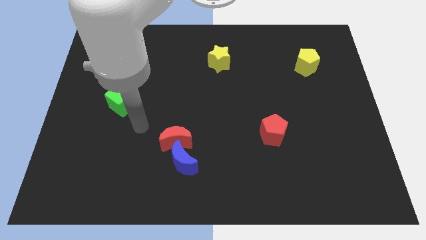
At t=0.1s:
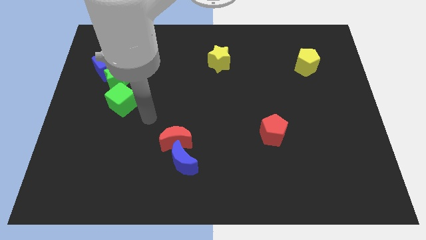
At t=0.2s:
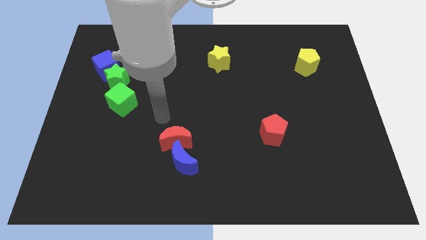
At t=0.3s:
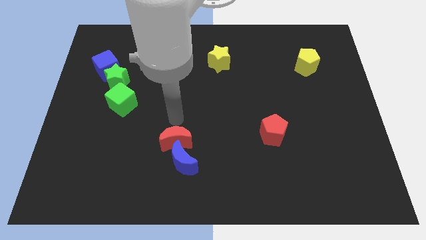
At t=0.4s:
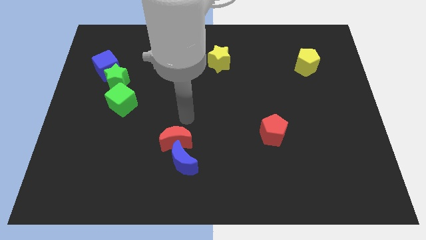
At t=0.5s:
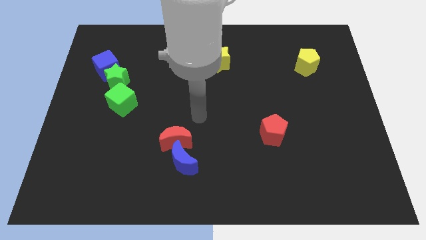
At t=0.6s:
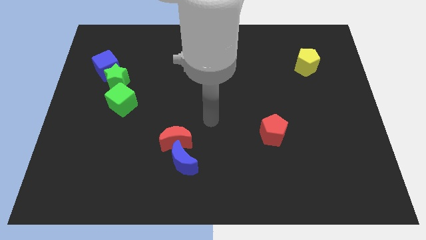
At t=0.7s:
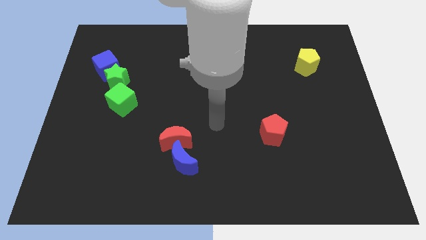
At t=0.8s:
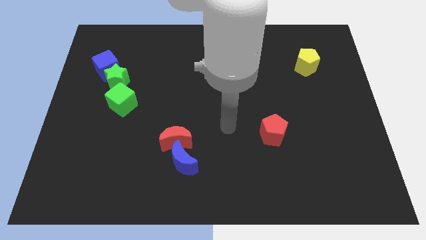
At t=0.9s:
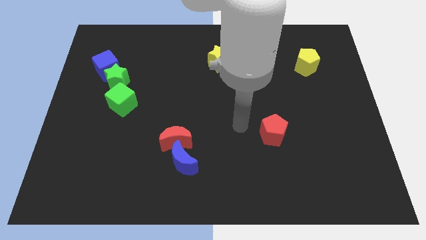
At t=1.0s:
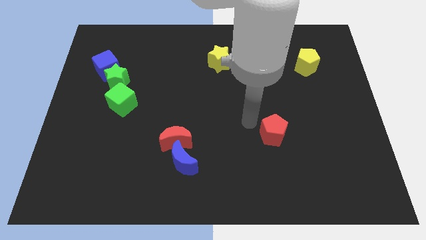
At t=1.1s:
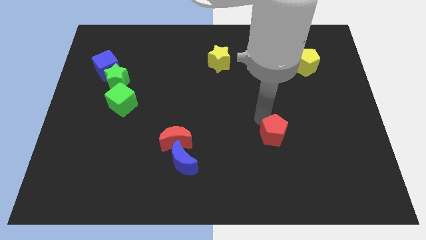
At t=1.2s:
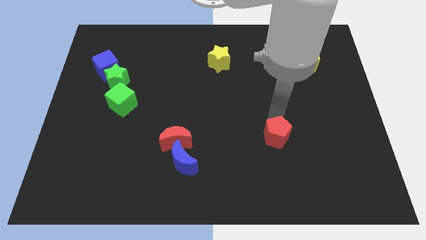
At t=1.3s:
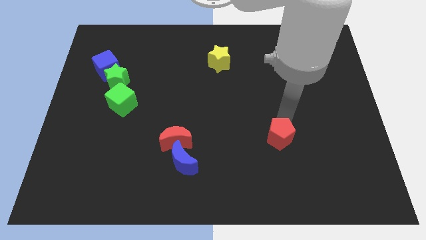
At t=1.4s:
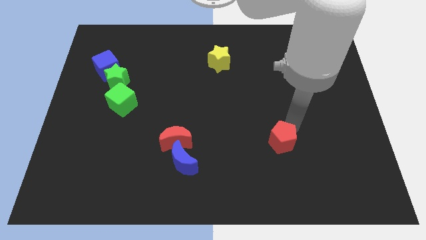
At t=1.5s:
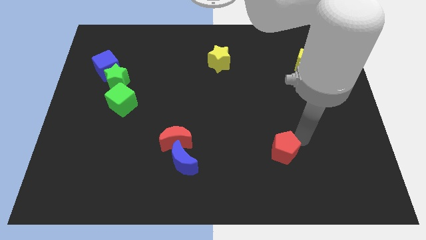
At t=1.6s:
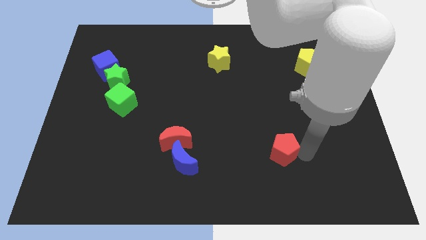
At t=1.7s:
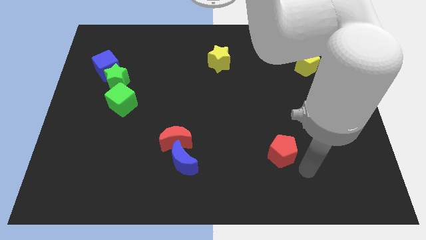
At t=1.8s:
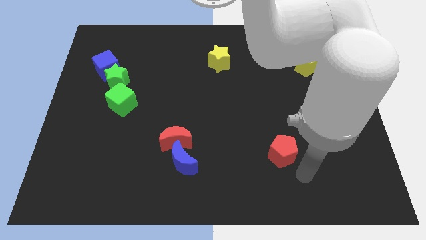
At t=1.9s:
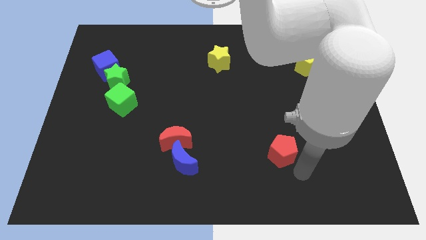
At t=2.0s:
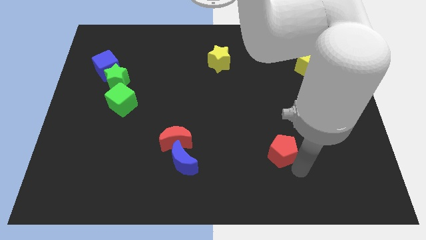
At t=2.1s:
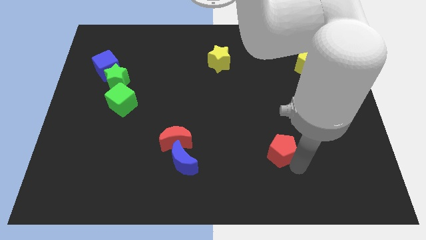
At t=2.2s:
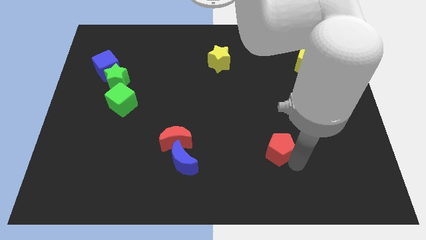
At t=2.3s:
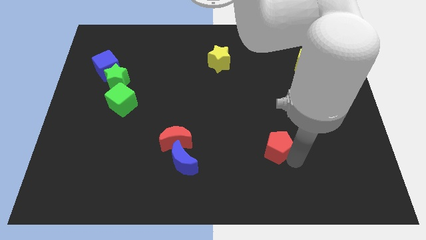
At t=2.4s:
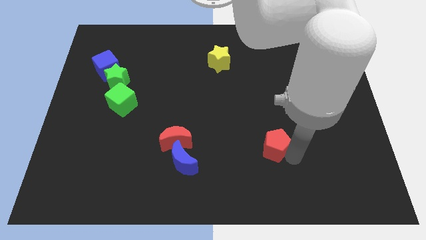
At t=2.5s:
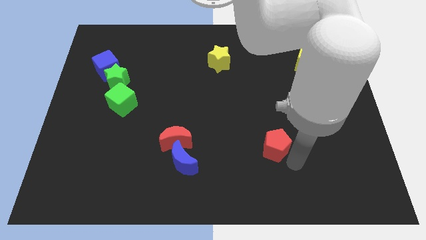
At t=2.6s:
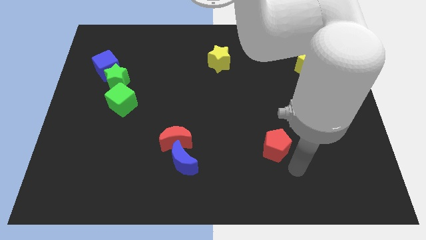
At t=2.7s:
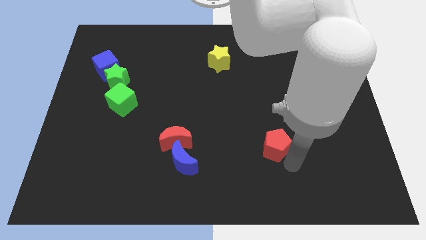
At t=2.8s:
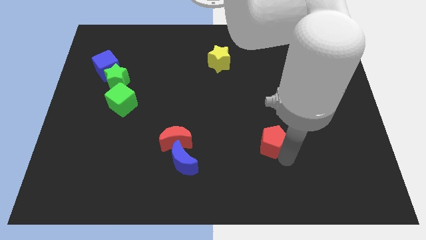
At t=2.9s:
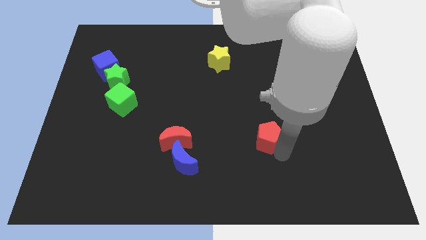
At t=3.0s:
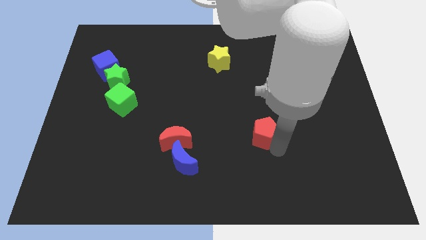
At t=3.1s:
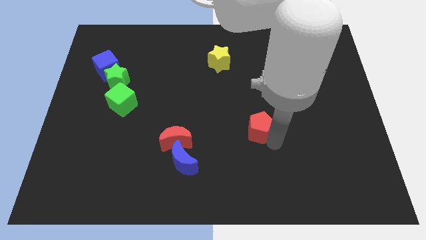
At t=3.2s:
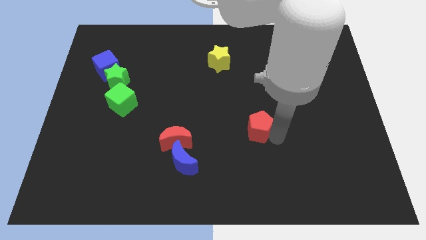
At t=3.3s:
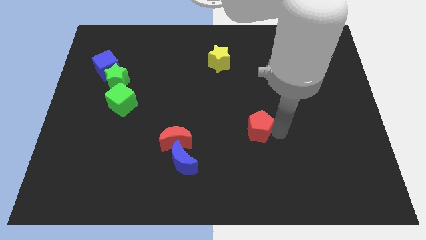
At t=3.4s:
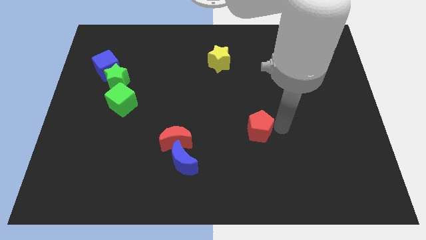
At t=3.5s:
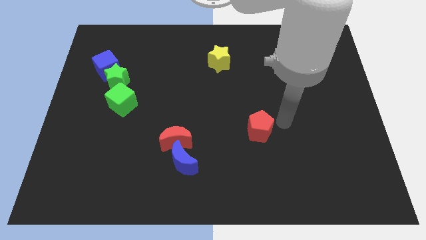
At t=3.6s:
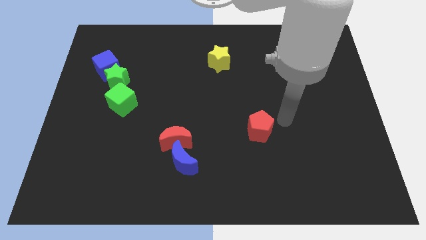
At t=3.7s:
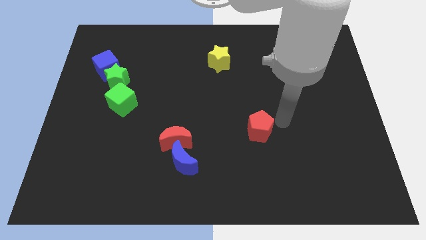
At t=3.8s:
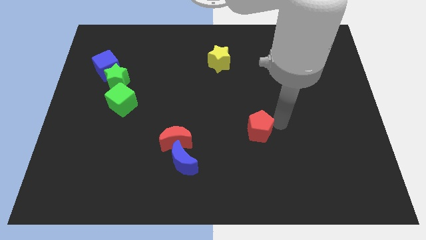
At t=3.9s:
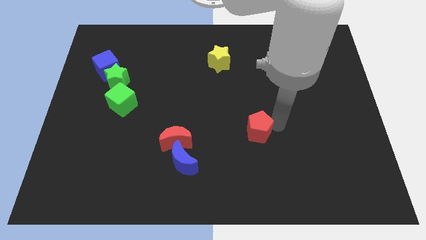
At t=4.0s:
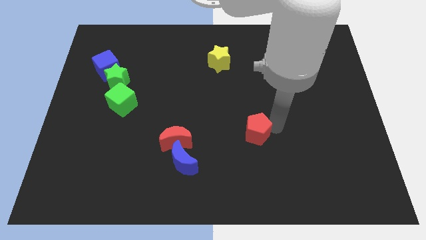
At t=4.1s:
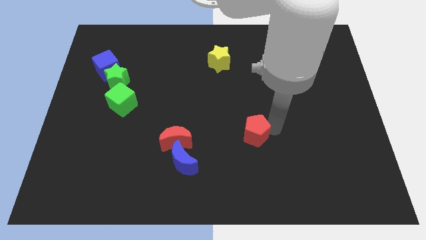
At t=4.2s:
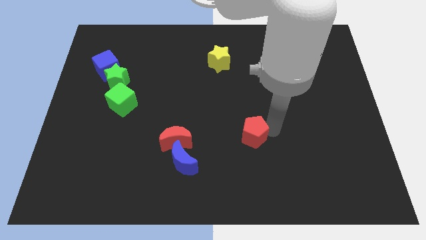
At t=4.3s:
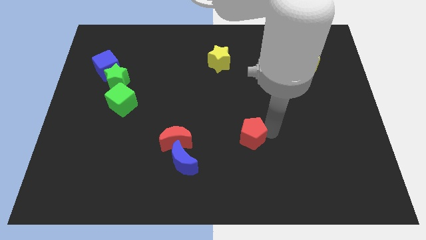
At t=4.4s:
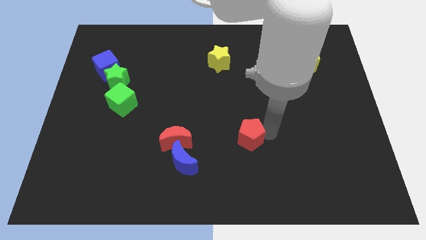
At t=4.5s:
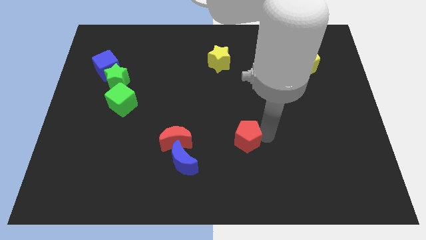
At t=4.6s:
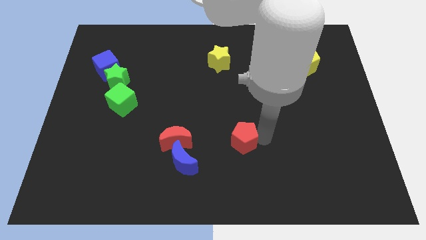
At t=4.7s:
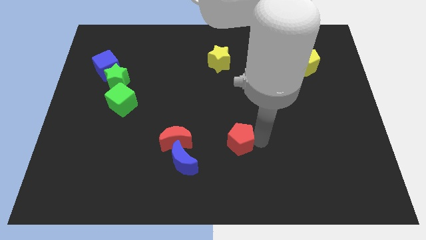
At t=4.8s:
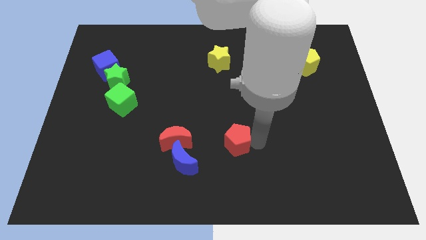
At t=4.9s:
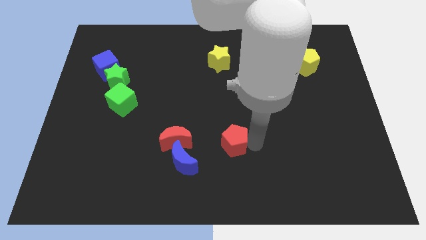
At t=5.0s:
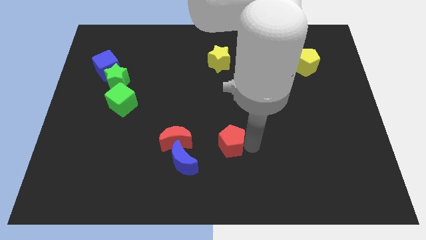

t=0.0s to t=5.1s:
push the red pentagon to the top right of the blue moon

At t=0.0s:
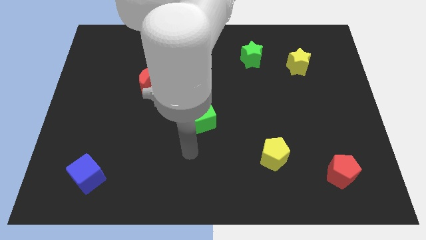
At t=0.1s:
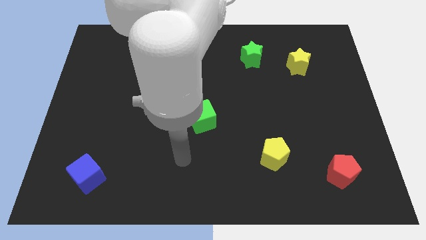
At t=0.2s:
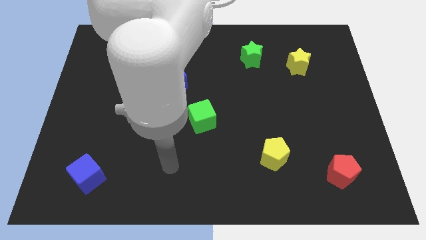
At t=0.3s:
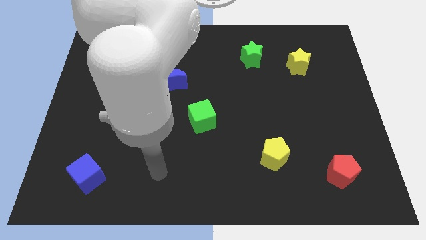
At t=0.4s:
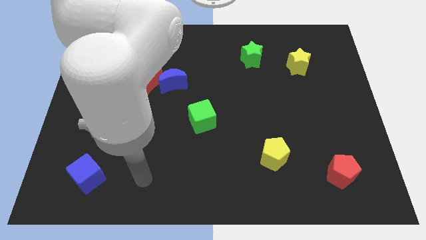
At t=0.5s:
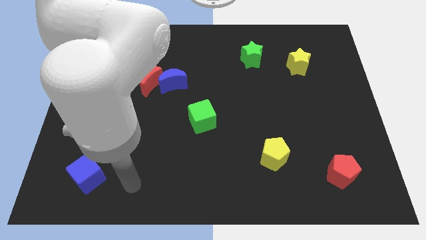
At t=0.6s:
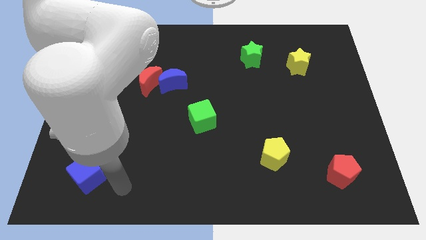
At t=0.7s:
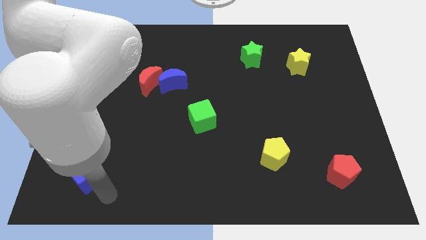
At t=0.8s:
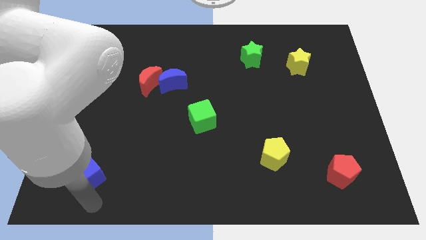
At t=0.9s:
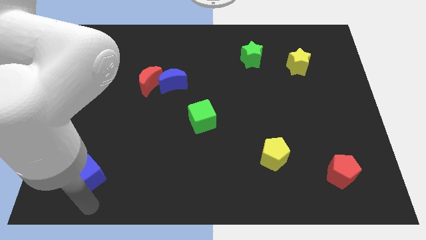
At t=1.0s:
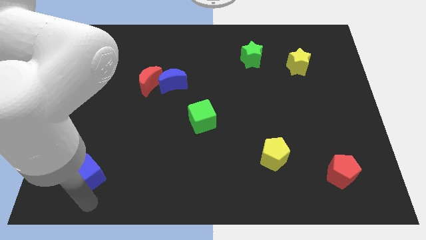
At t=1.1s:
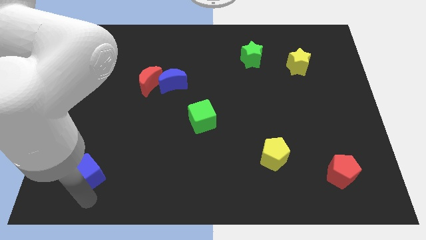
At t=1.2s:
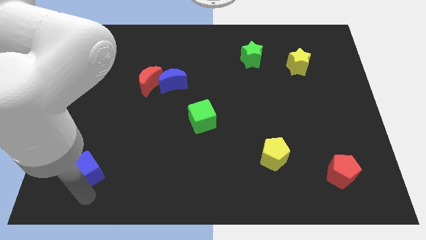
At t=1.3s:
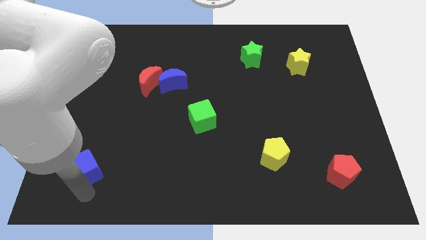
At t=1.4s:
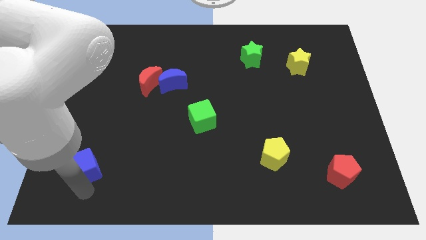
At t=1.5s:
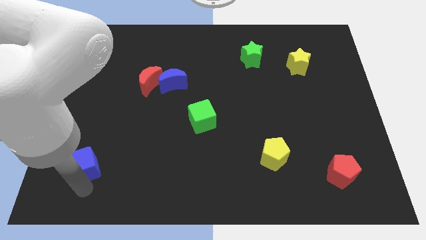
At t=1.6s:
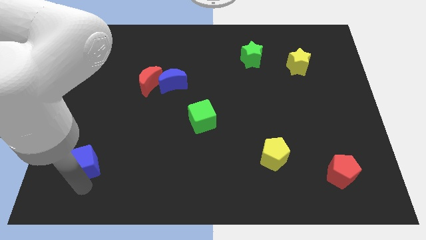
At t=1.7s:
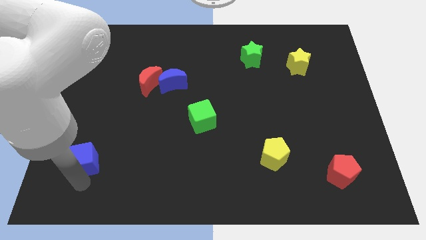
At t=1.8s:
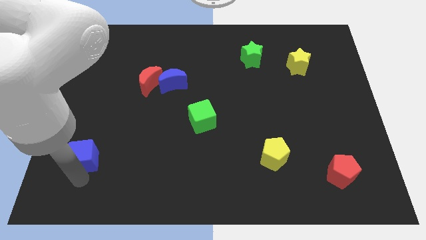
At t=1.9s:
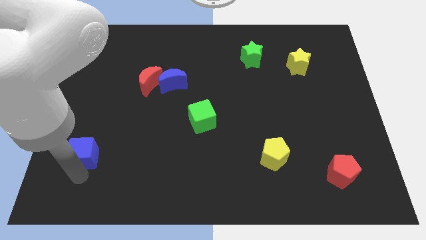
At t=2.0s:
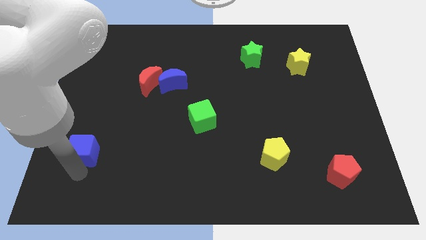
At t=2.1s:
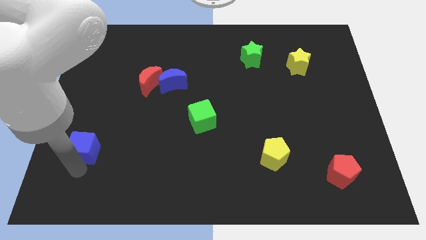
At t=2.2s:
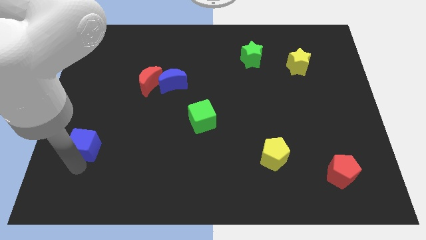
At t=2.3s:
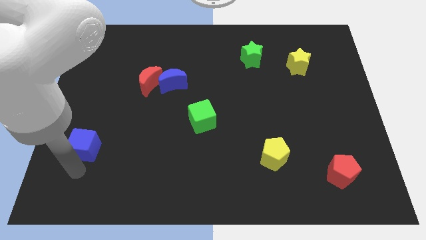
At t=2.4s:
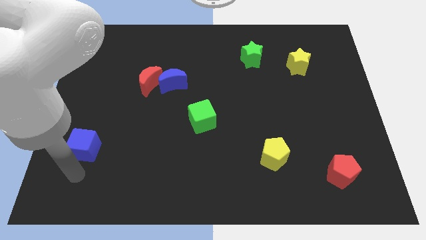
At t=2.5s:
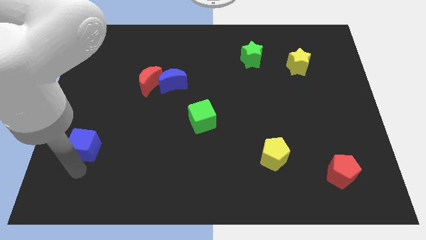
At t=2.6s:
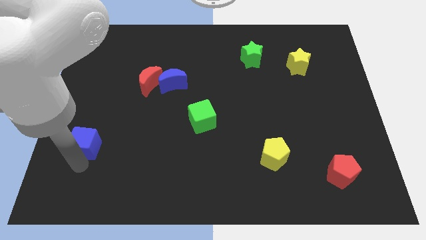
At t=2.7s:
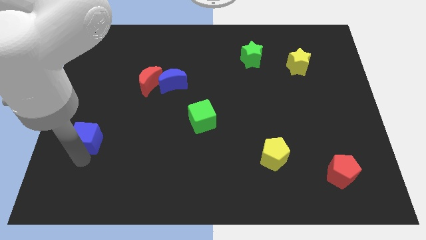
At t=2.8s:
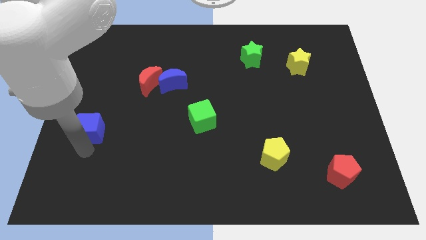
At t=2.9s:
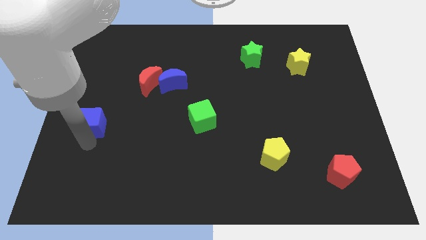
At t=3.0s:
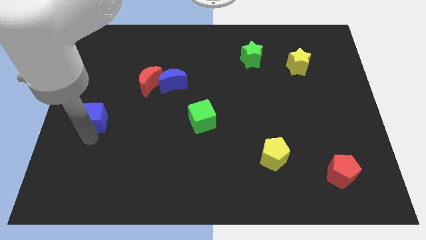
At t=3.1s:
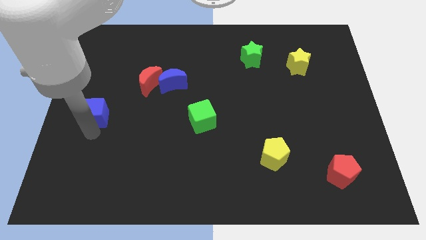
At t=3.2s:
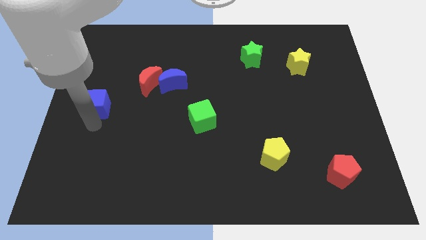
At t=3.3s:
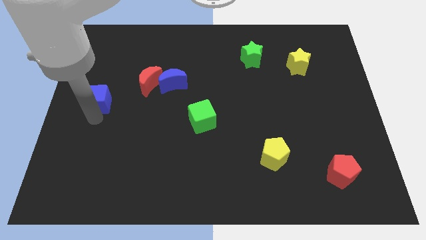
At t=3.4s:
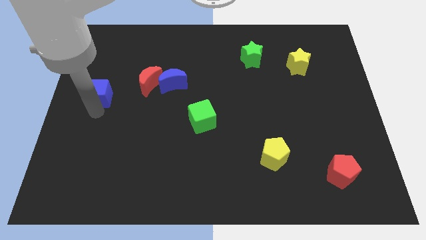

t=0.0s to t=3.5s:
slide the blue cube to the left of the red moon

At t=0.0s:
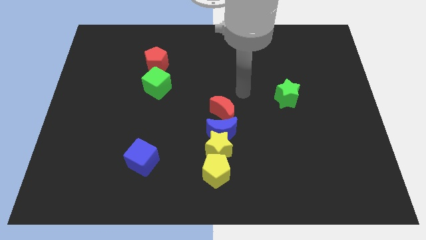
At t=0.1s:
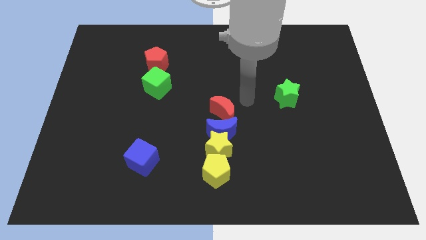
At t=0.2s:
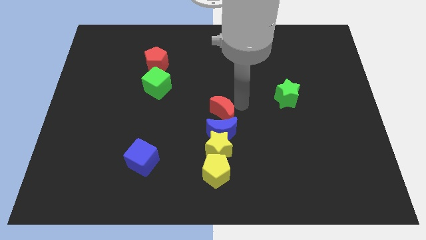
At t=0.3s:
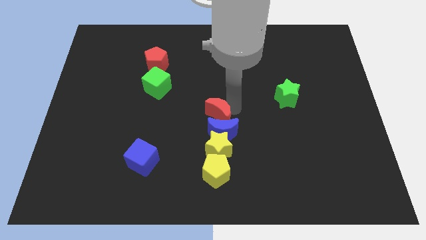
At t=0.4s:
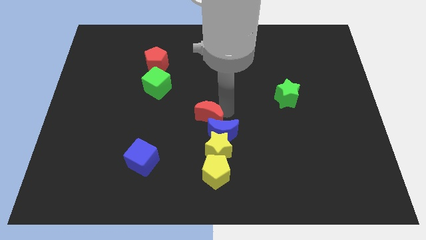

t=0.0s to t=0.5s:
slide the red moon diagonally up and to the left of the yellow star
